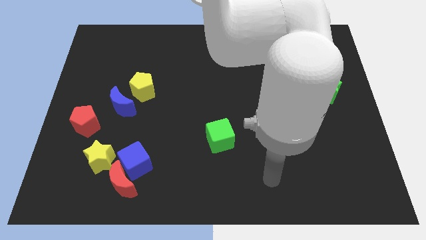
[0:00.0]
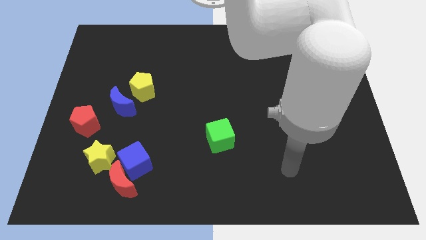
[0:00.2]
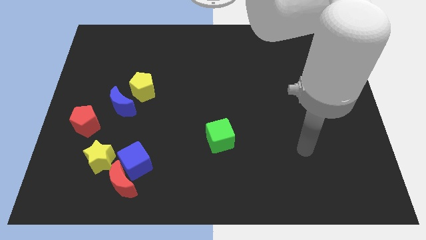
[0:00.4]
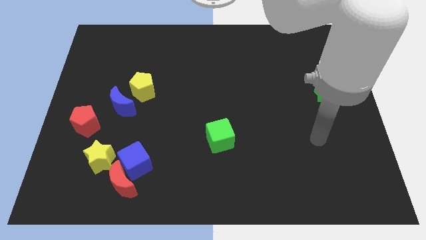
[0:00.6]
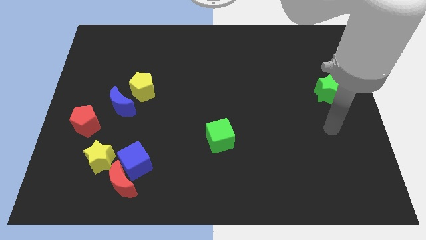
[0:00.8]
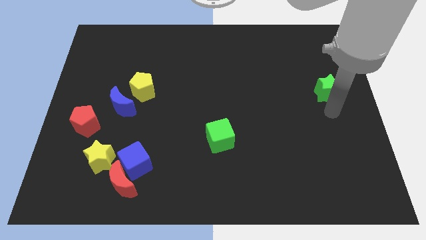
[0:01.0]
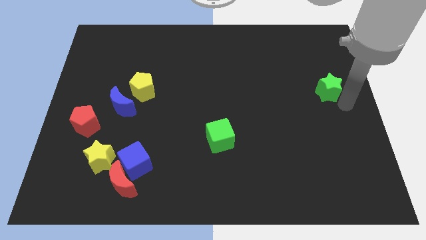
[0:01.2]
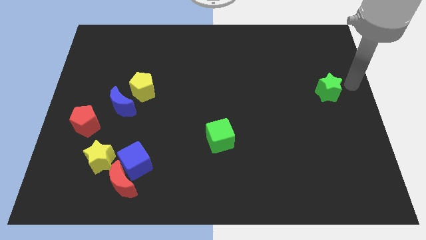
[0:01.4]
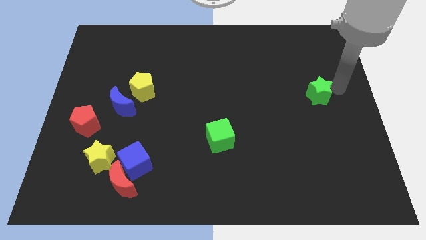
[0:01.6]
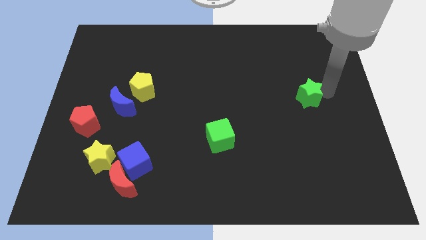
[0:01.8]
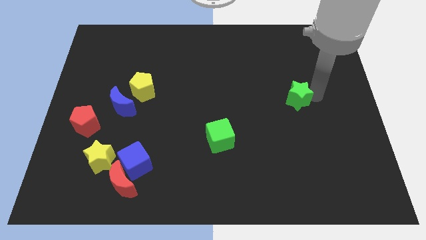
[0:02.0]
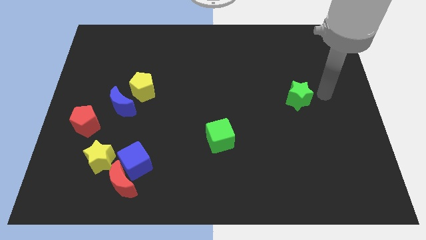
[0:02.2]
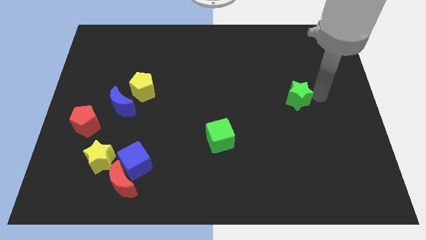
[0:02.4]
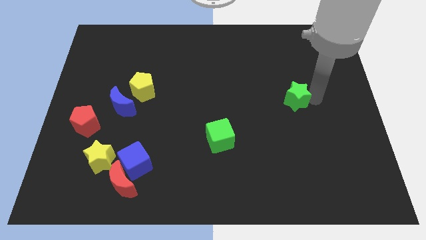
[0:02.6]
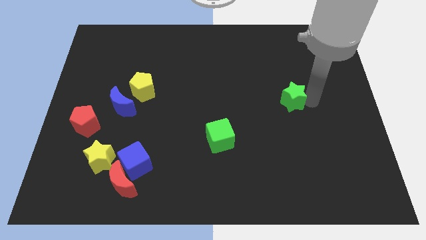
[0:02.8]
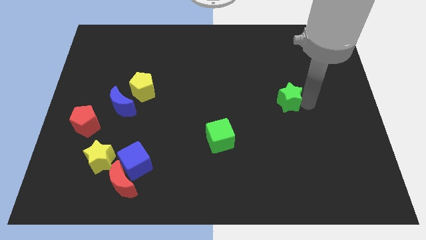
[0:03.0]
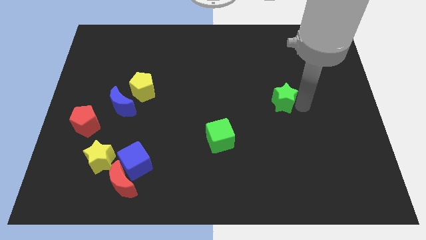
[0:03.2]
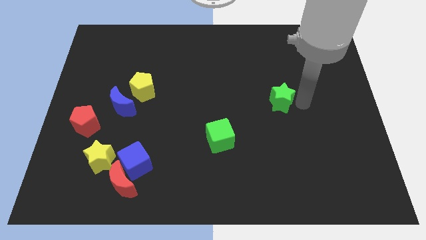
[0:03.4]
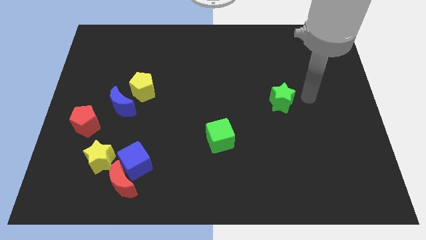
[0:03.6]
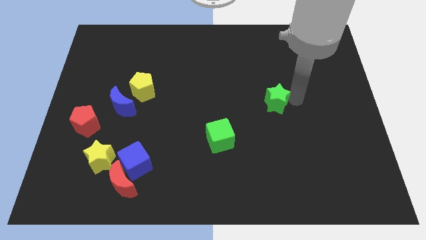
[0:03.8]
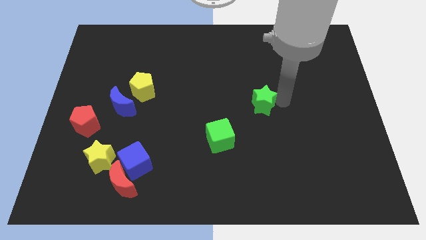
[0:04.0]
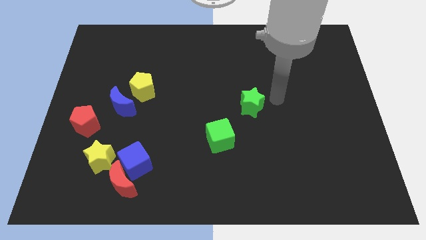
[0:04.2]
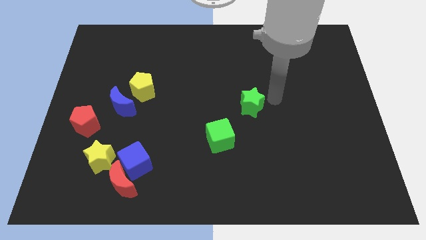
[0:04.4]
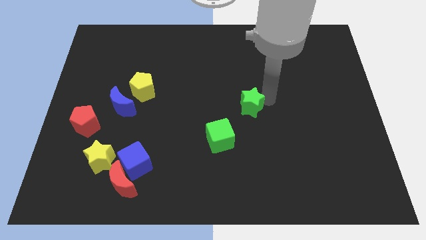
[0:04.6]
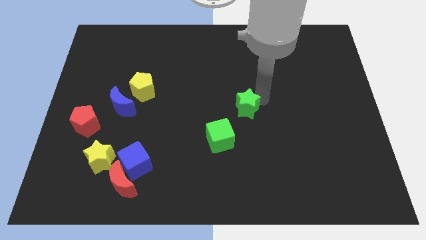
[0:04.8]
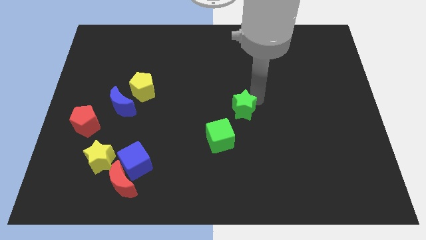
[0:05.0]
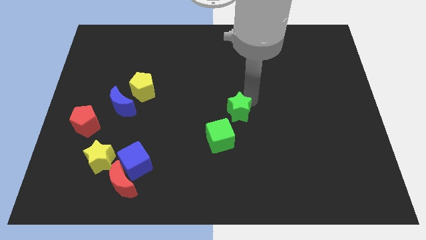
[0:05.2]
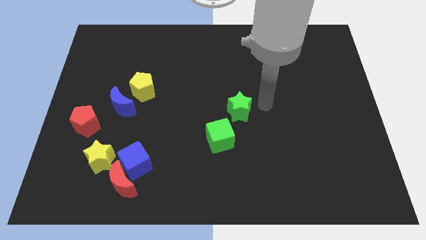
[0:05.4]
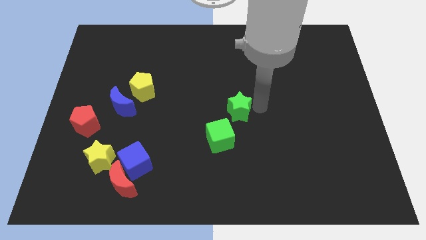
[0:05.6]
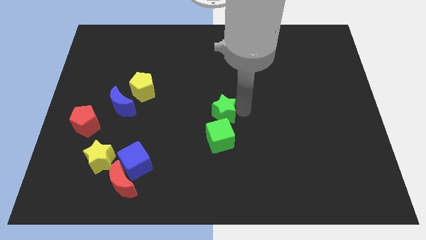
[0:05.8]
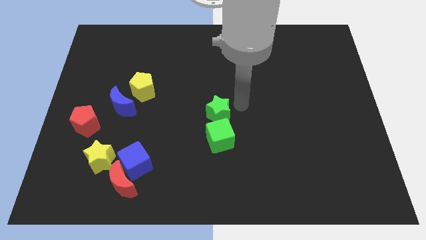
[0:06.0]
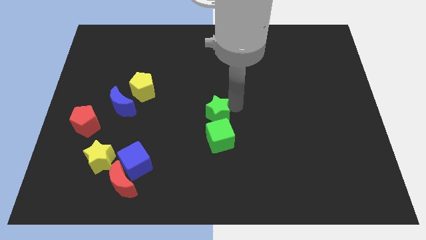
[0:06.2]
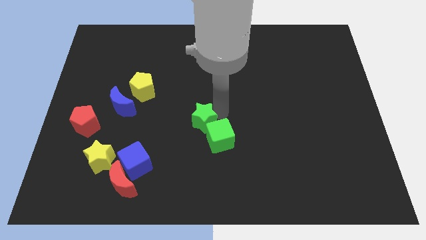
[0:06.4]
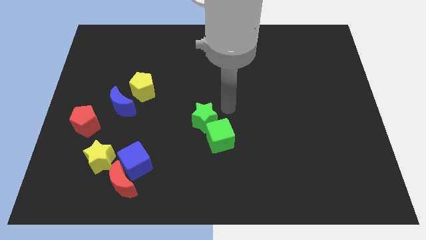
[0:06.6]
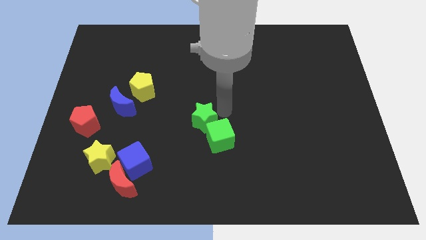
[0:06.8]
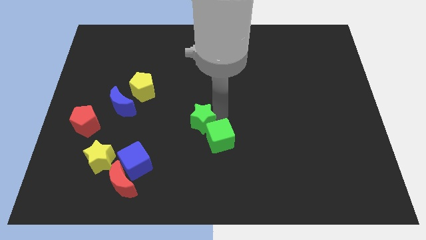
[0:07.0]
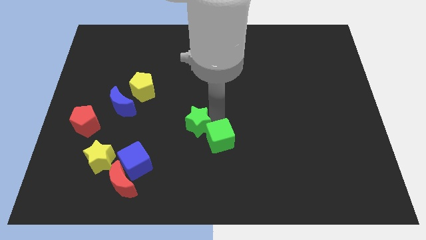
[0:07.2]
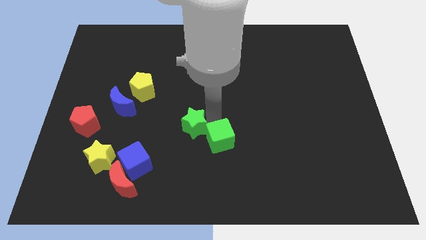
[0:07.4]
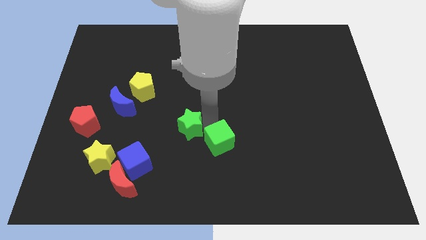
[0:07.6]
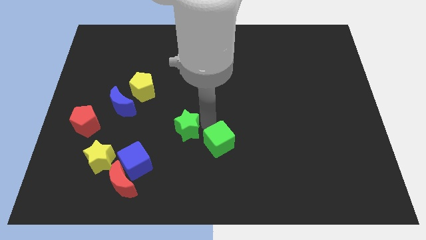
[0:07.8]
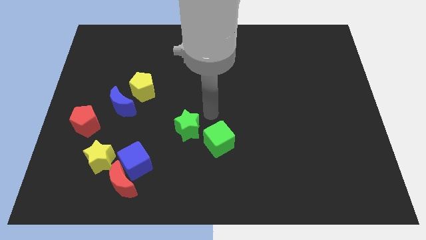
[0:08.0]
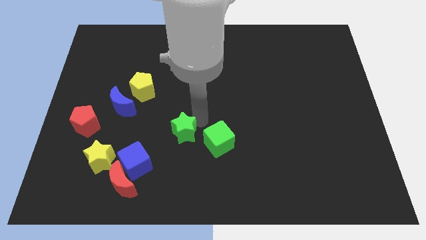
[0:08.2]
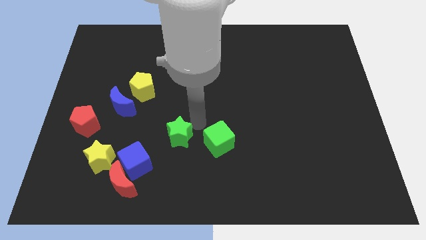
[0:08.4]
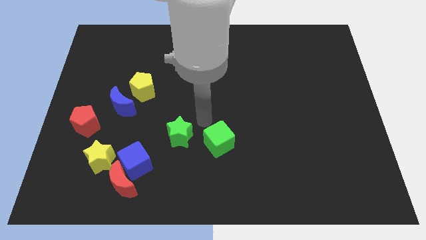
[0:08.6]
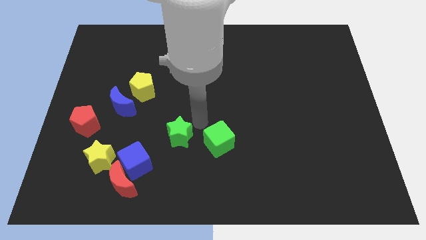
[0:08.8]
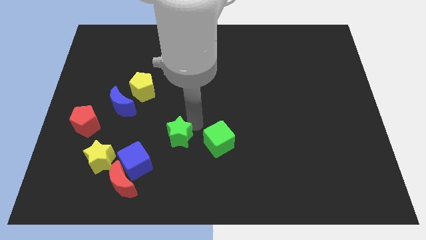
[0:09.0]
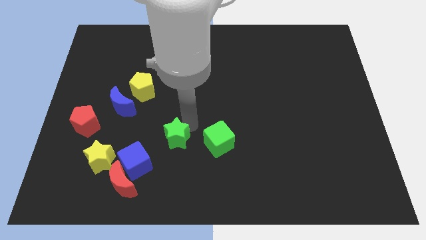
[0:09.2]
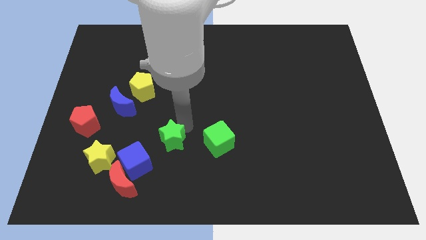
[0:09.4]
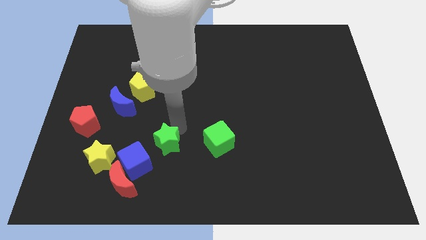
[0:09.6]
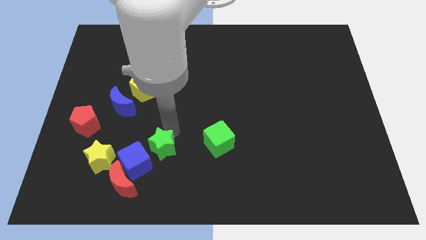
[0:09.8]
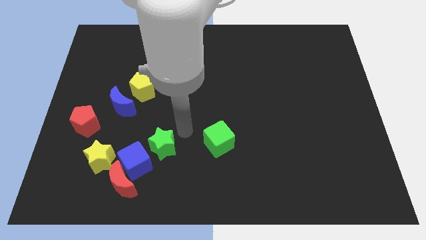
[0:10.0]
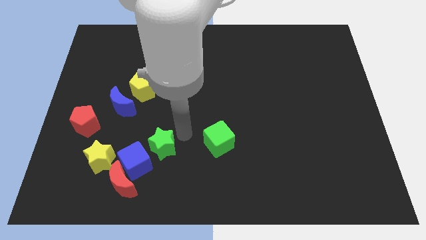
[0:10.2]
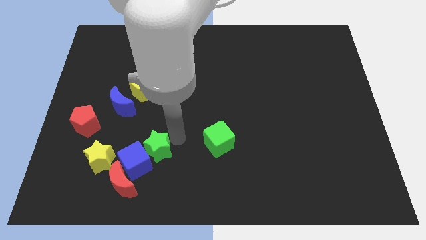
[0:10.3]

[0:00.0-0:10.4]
slide the green star next to the blue cube

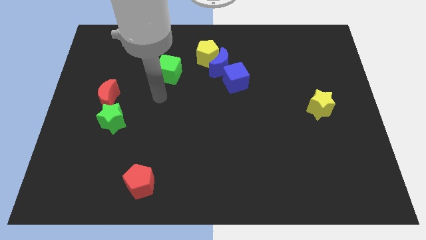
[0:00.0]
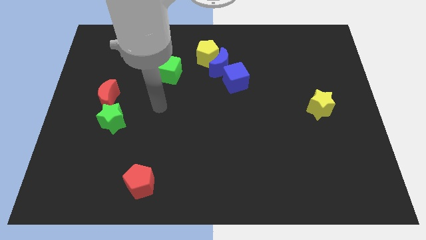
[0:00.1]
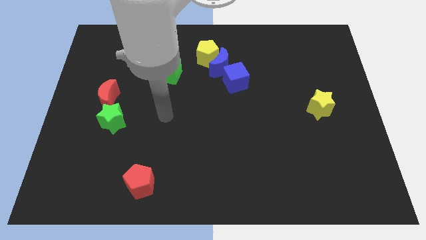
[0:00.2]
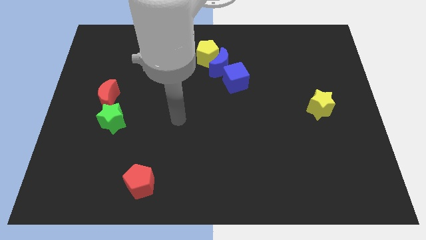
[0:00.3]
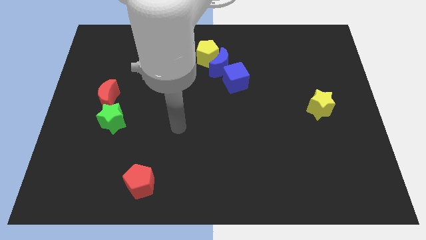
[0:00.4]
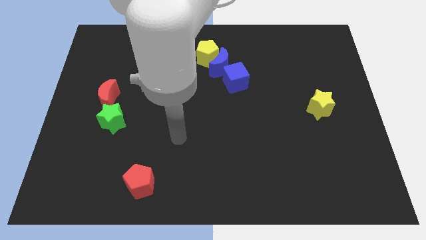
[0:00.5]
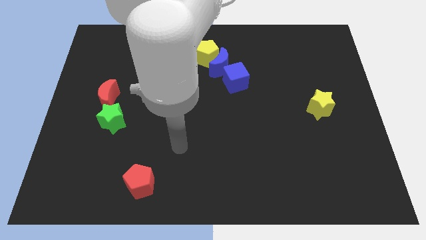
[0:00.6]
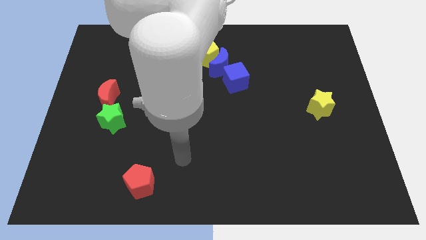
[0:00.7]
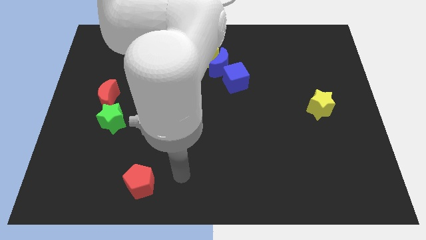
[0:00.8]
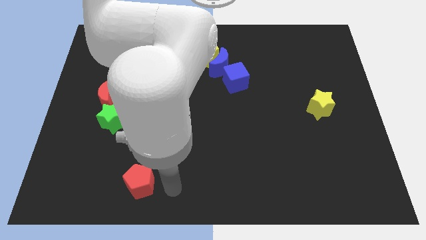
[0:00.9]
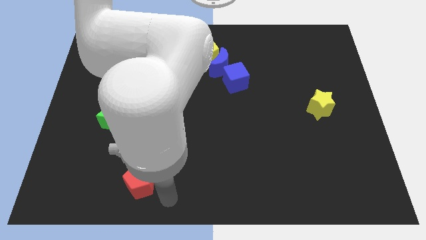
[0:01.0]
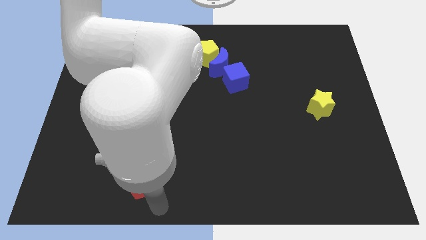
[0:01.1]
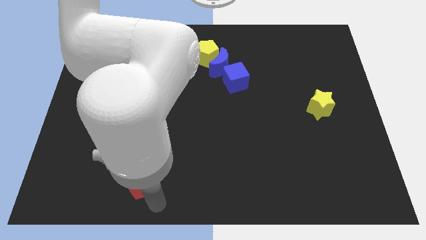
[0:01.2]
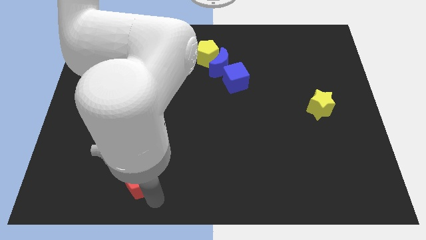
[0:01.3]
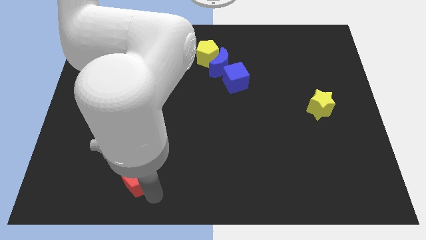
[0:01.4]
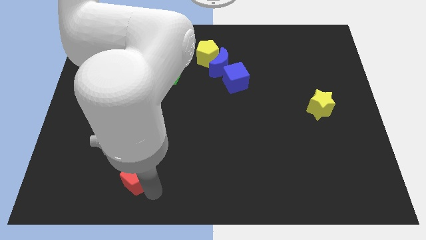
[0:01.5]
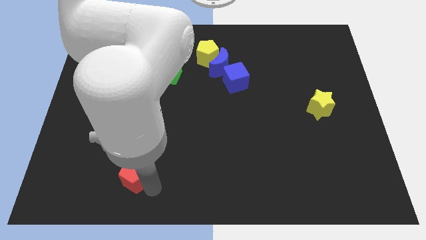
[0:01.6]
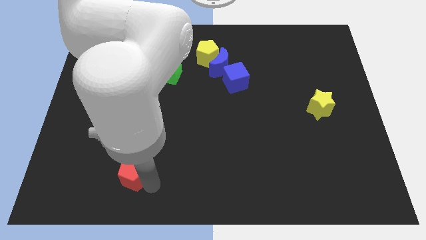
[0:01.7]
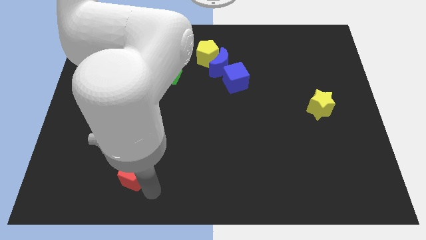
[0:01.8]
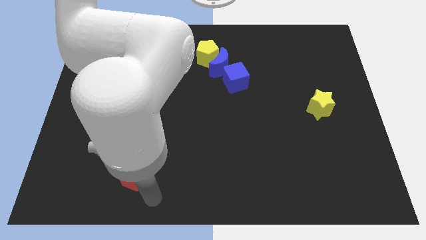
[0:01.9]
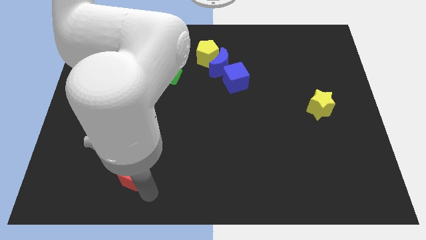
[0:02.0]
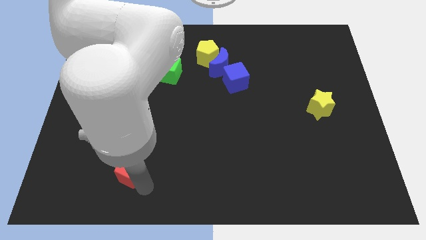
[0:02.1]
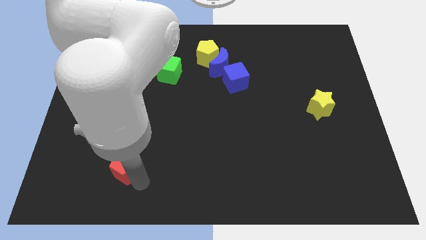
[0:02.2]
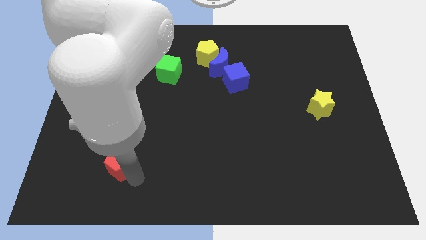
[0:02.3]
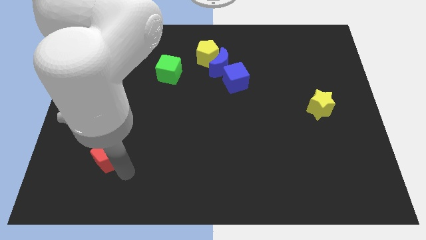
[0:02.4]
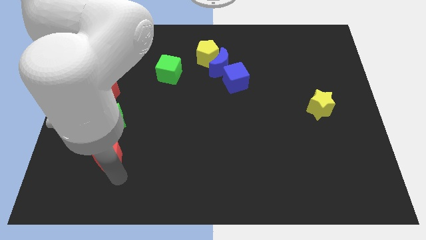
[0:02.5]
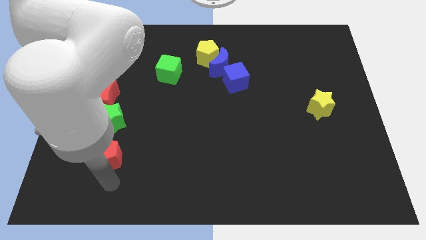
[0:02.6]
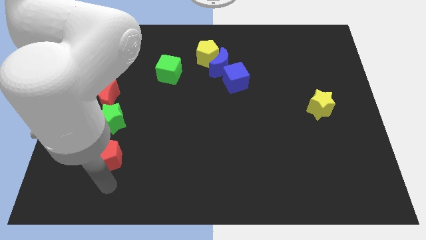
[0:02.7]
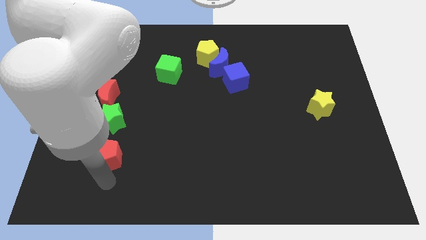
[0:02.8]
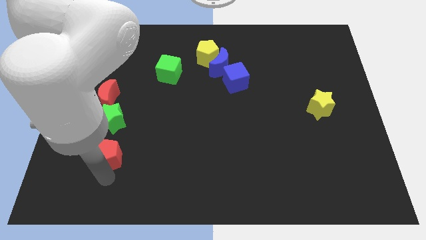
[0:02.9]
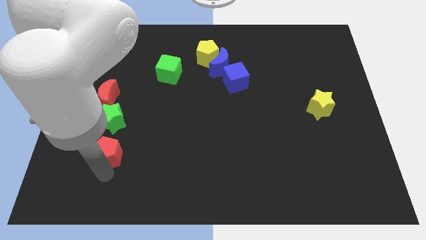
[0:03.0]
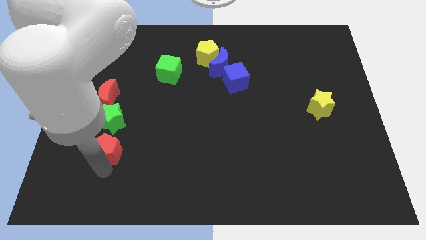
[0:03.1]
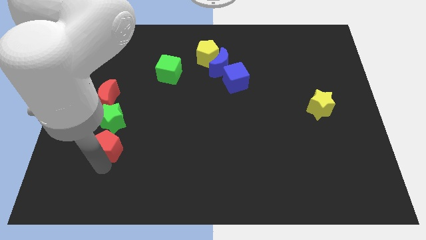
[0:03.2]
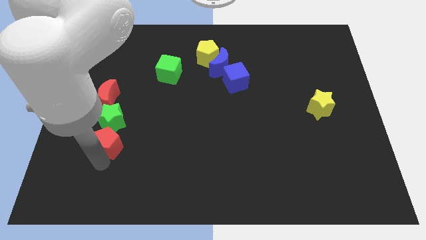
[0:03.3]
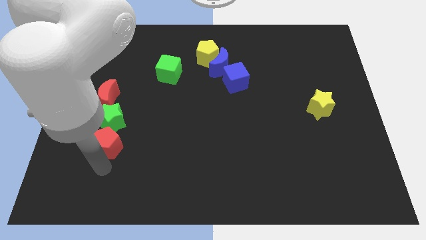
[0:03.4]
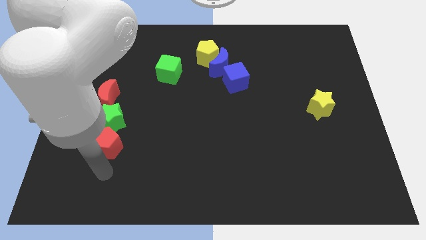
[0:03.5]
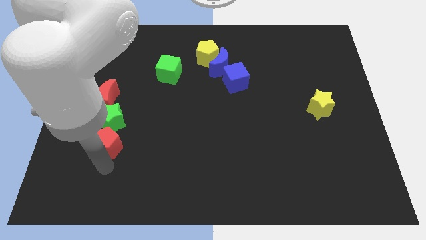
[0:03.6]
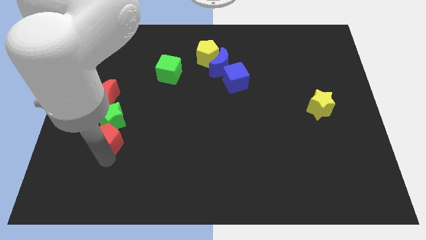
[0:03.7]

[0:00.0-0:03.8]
put the red pentagon close to the green star
